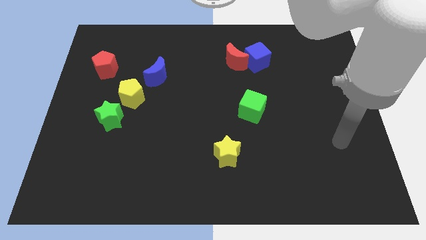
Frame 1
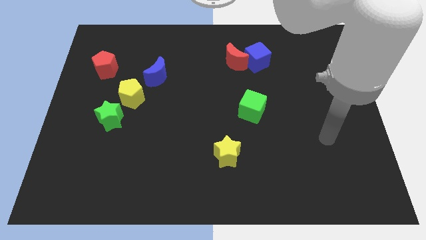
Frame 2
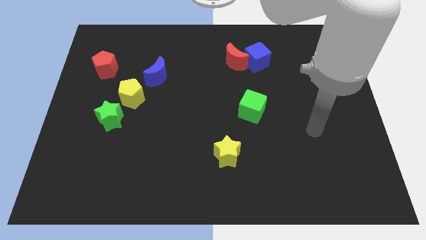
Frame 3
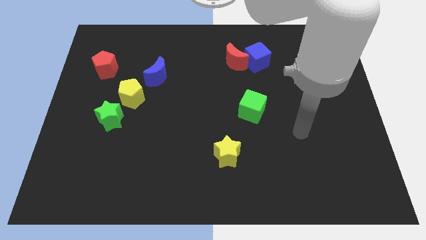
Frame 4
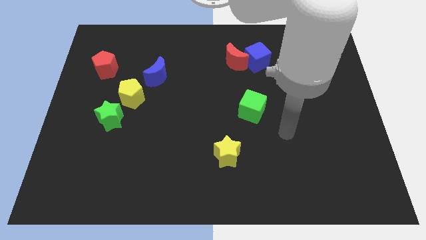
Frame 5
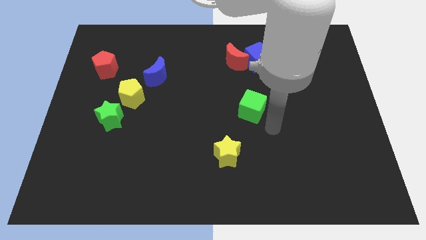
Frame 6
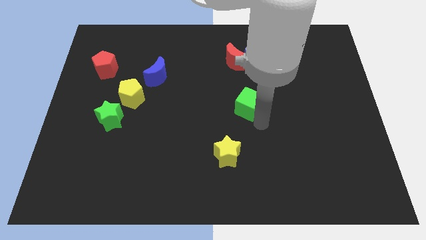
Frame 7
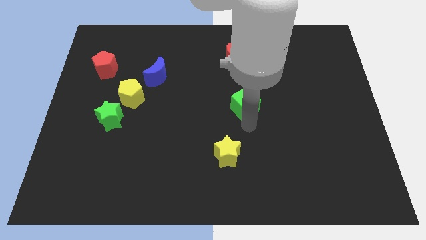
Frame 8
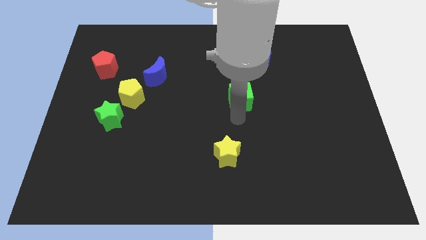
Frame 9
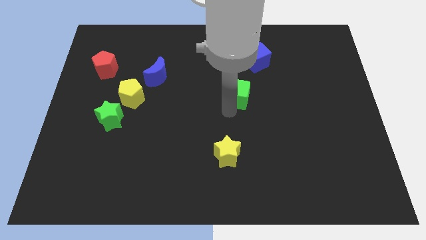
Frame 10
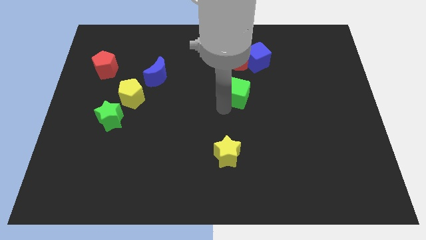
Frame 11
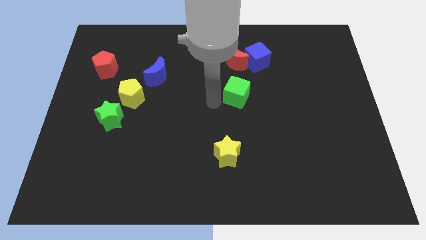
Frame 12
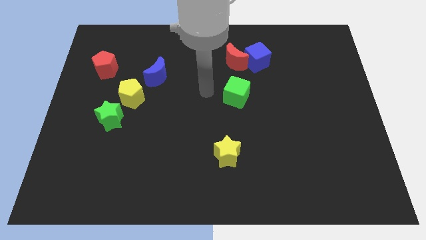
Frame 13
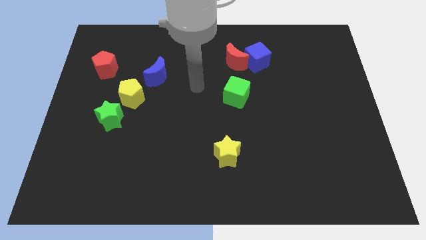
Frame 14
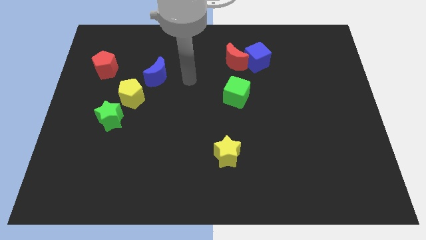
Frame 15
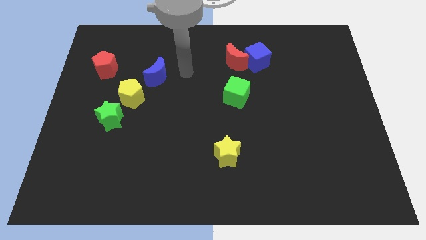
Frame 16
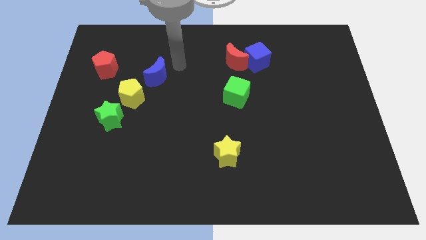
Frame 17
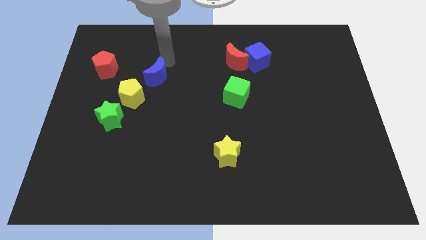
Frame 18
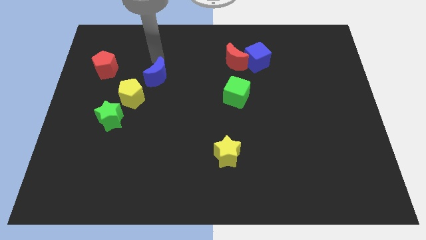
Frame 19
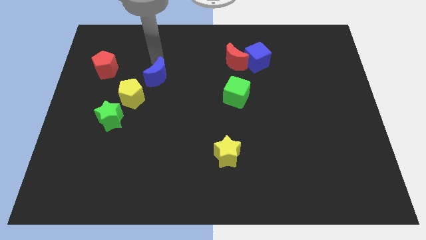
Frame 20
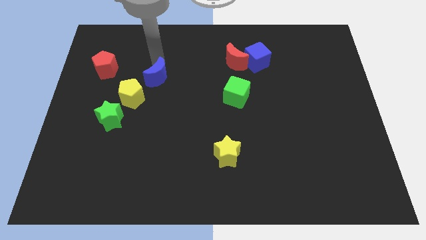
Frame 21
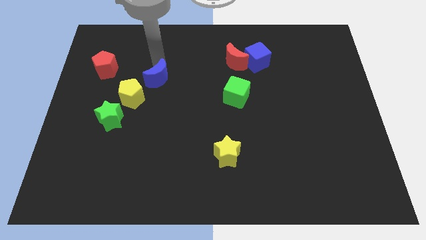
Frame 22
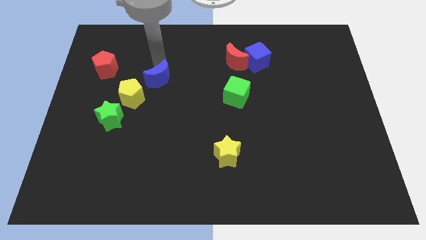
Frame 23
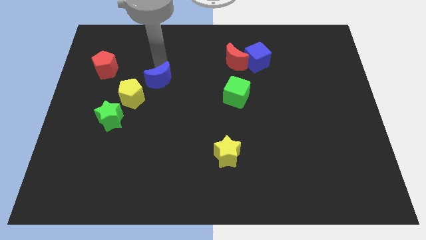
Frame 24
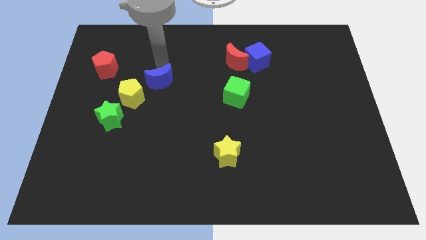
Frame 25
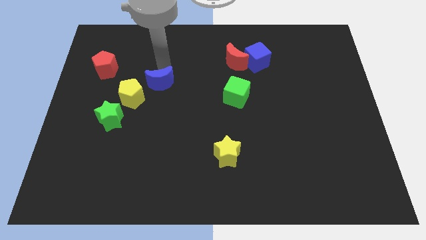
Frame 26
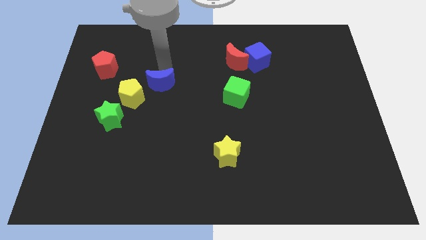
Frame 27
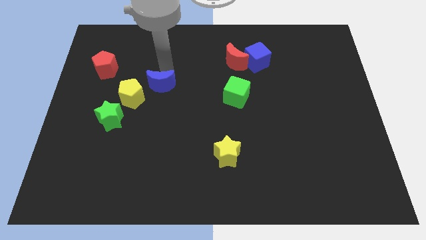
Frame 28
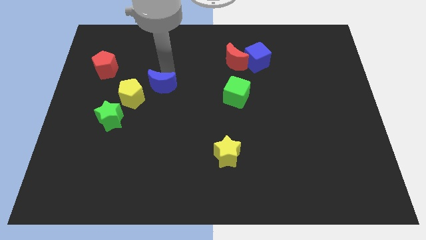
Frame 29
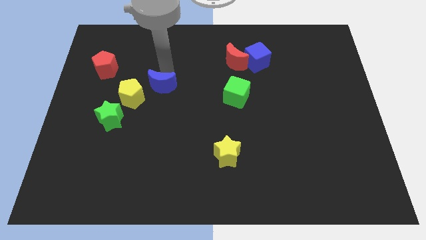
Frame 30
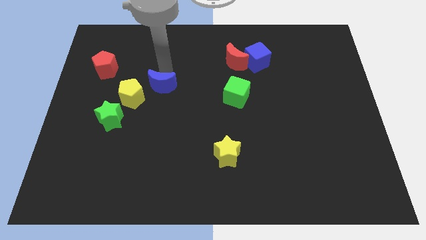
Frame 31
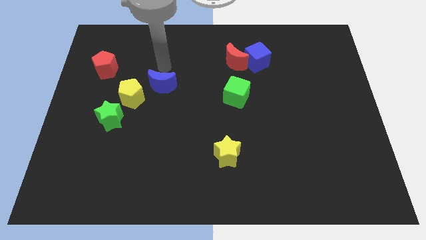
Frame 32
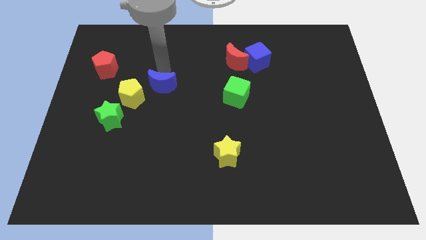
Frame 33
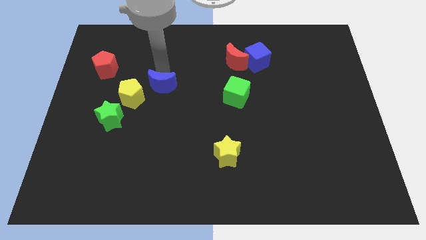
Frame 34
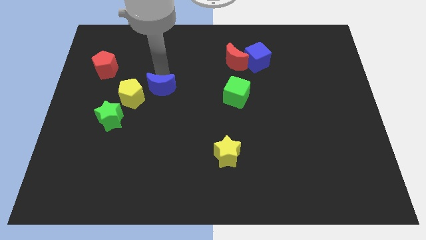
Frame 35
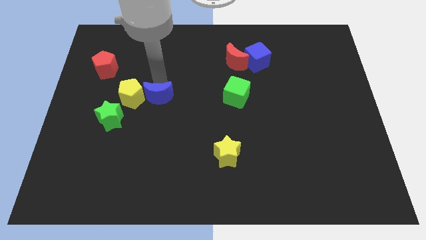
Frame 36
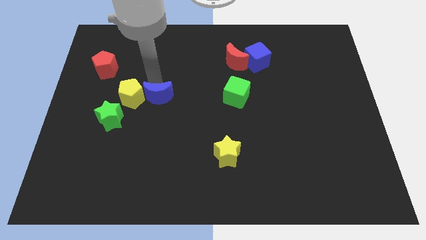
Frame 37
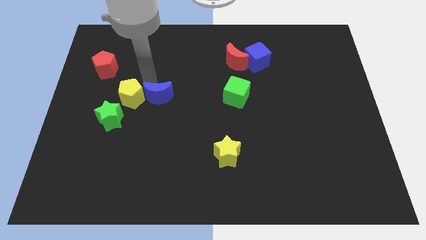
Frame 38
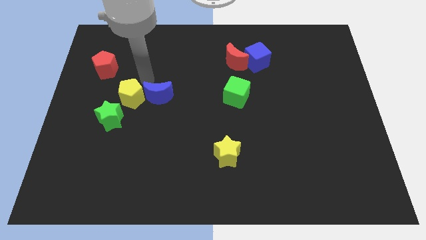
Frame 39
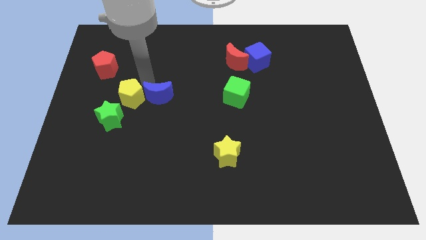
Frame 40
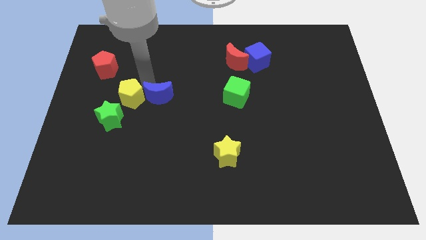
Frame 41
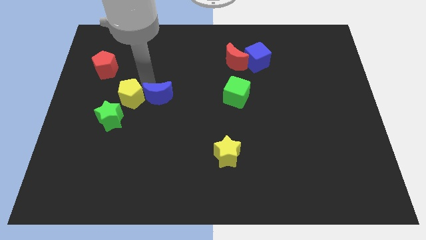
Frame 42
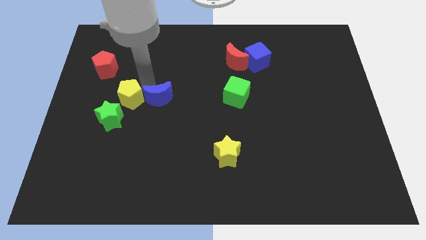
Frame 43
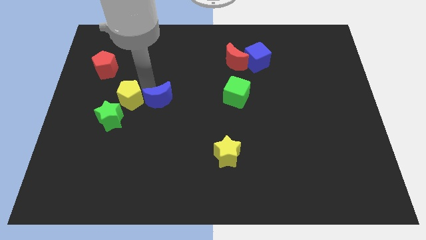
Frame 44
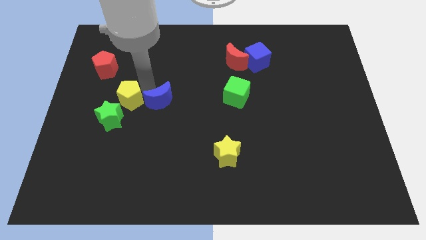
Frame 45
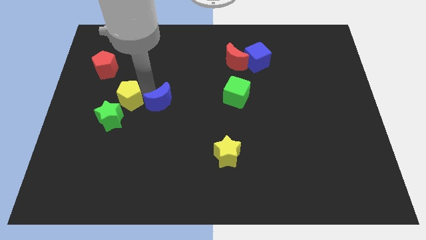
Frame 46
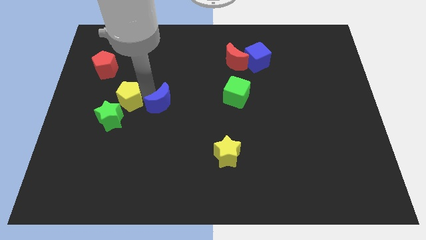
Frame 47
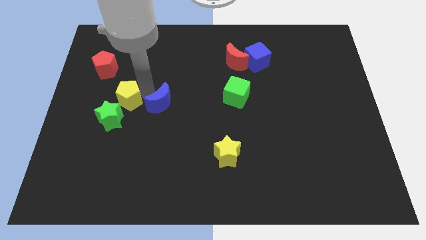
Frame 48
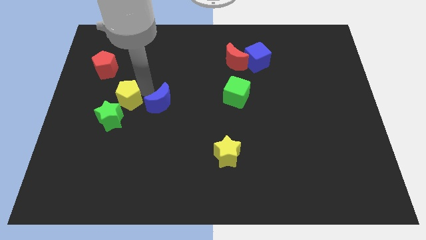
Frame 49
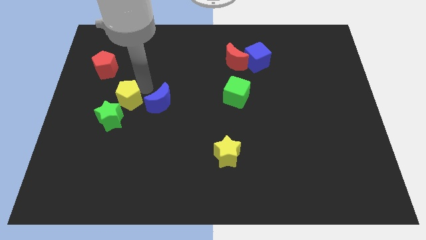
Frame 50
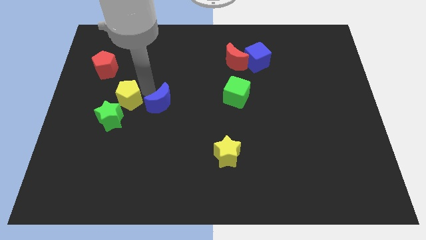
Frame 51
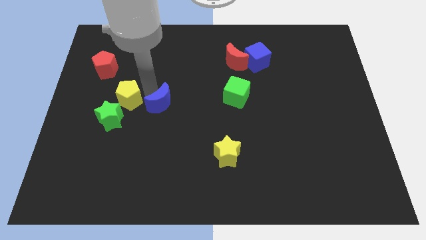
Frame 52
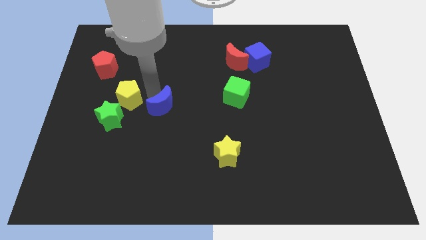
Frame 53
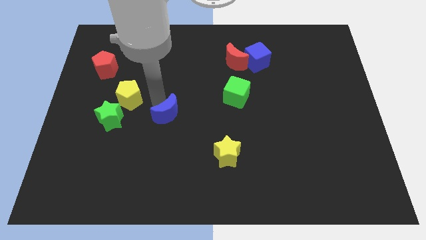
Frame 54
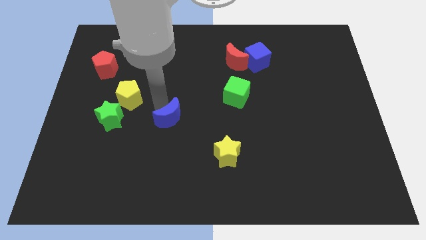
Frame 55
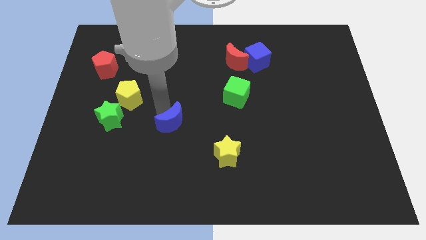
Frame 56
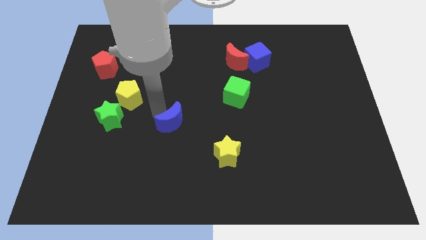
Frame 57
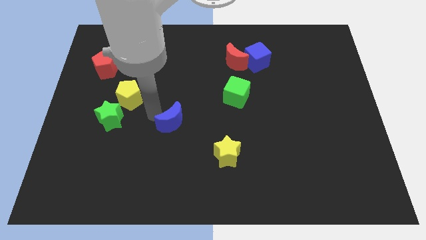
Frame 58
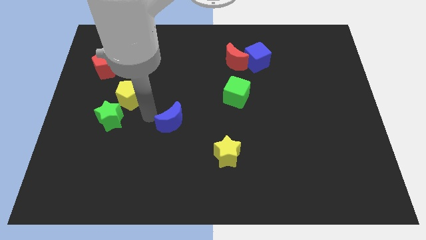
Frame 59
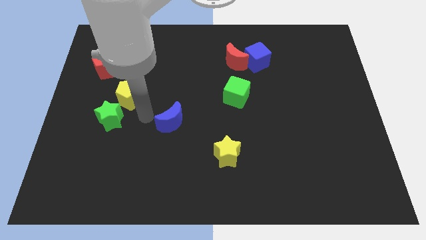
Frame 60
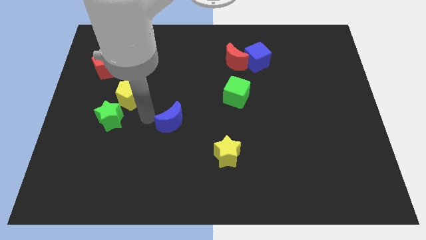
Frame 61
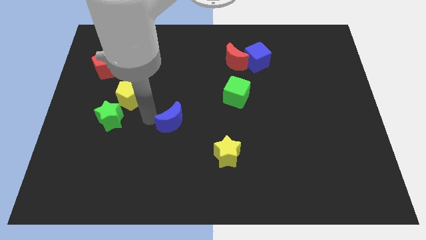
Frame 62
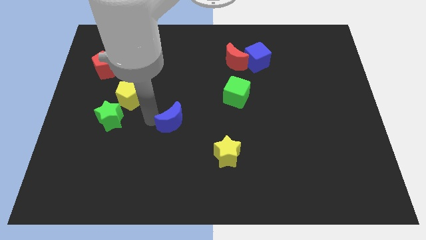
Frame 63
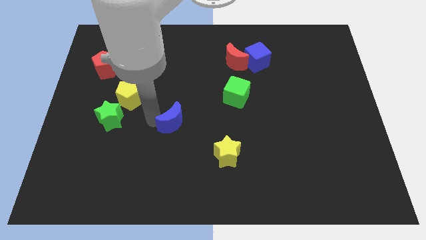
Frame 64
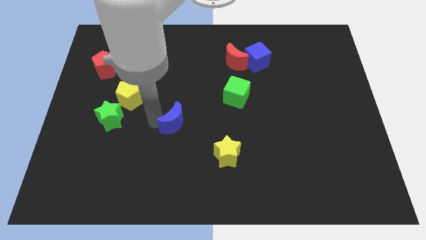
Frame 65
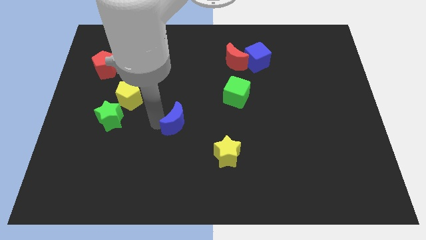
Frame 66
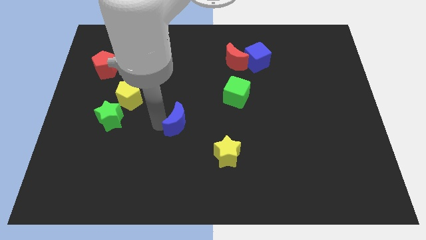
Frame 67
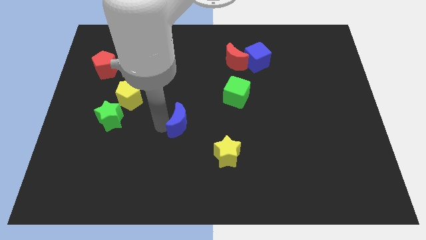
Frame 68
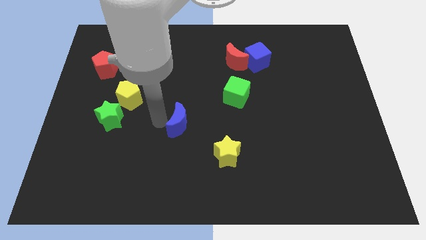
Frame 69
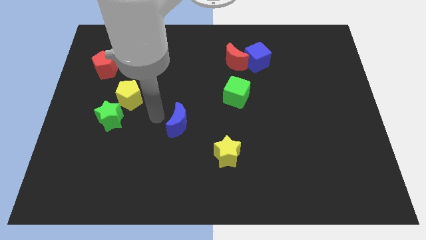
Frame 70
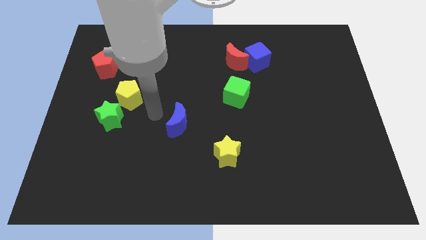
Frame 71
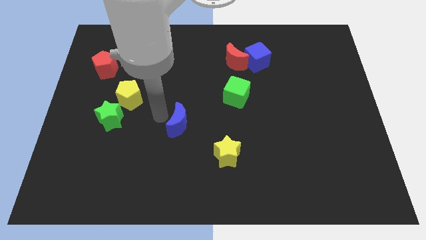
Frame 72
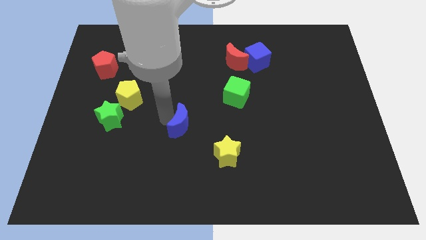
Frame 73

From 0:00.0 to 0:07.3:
move the blue moon diagonally up and to the left of the yellow star
